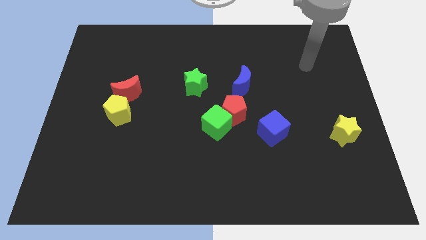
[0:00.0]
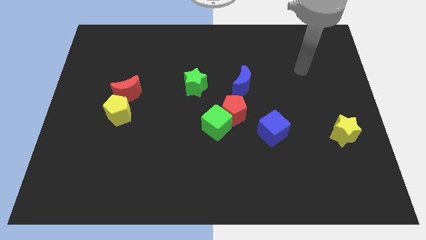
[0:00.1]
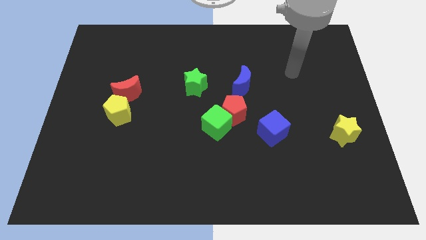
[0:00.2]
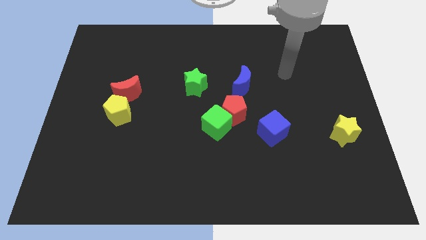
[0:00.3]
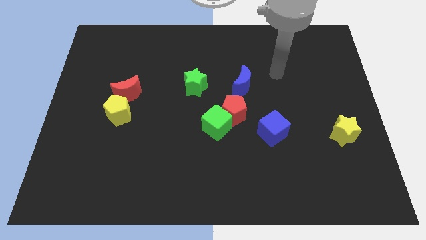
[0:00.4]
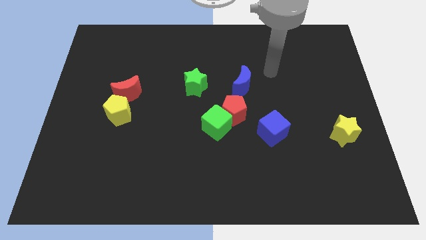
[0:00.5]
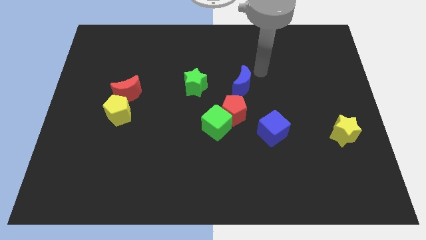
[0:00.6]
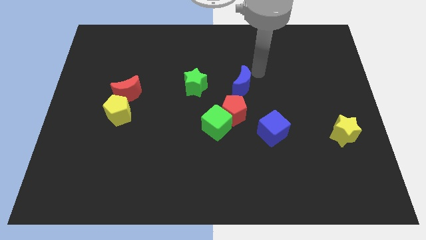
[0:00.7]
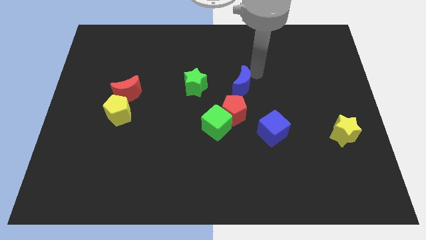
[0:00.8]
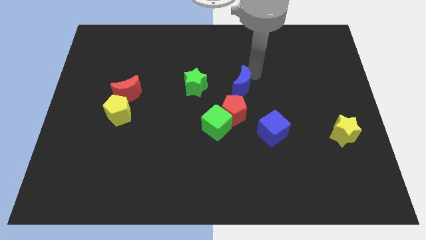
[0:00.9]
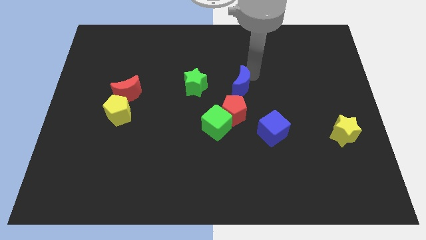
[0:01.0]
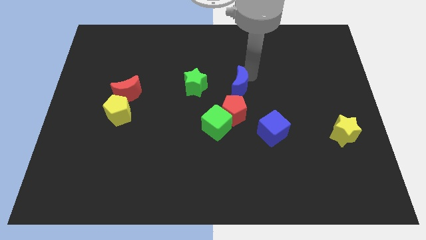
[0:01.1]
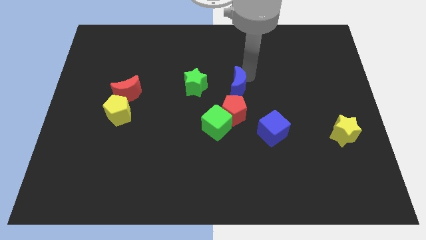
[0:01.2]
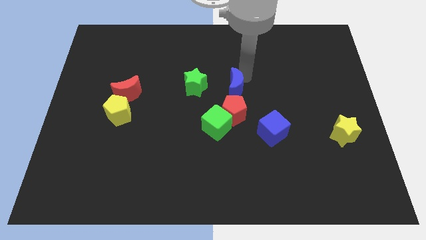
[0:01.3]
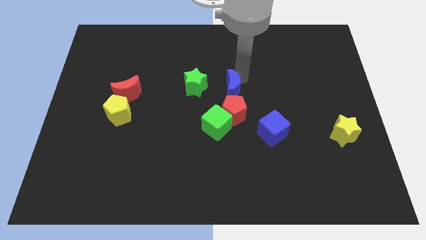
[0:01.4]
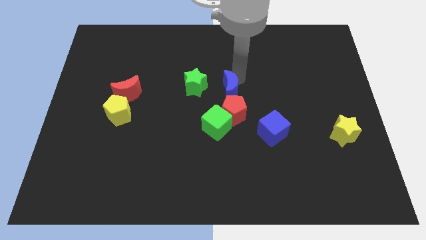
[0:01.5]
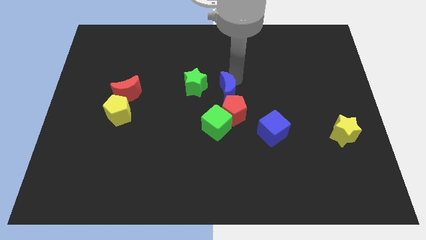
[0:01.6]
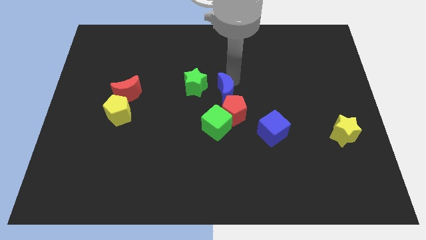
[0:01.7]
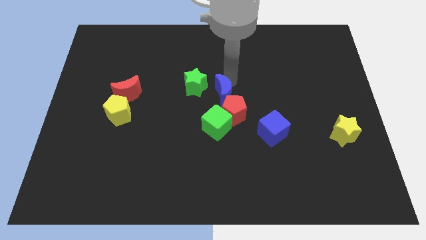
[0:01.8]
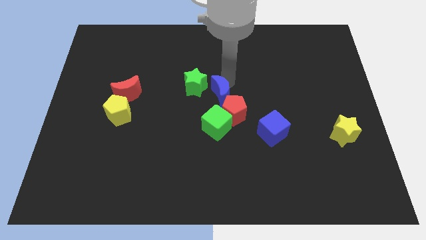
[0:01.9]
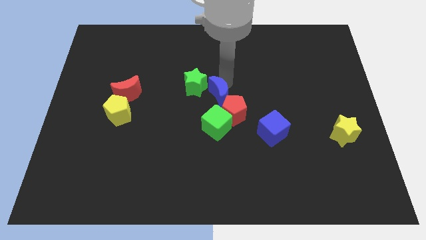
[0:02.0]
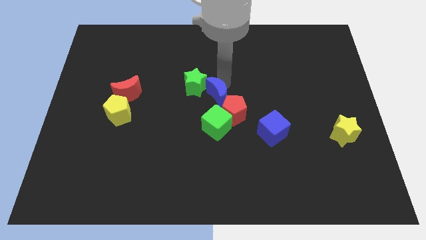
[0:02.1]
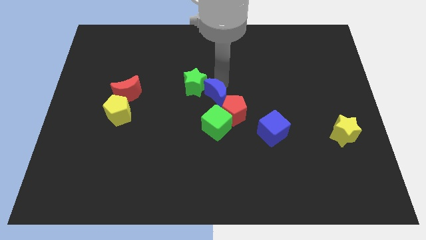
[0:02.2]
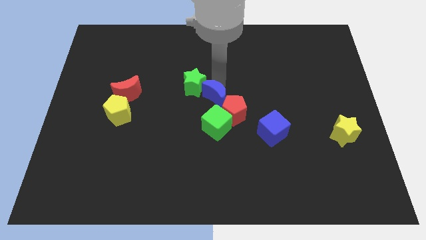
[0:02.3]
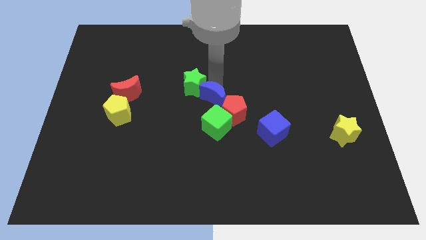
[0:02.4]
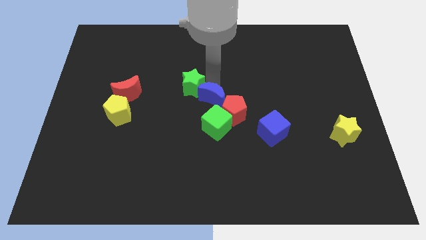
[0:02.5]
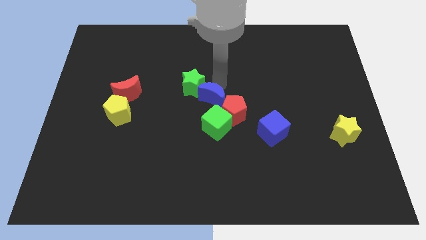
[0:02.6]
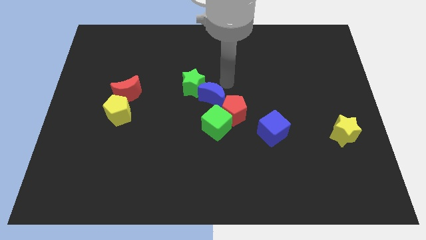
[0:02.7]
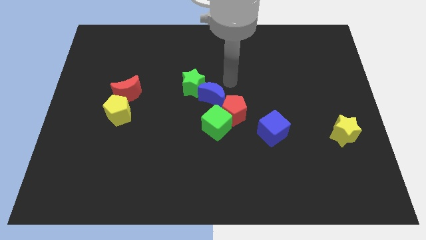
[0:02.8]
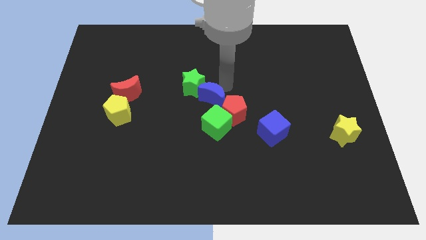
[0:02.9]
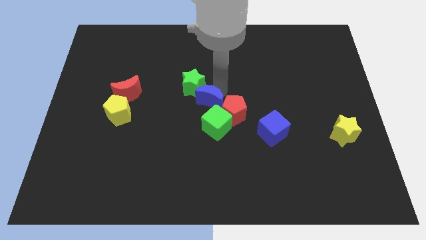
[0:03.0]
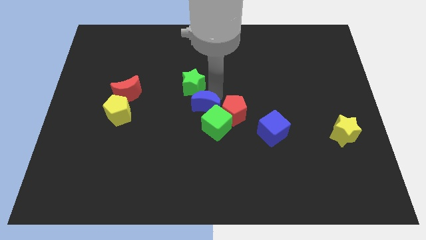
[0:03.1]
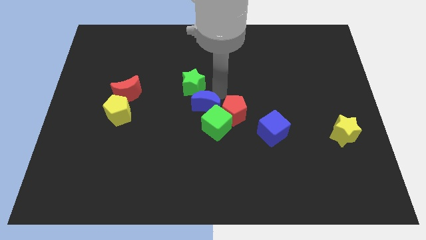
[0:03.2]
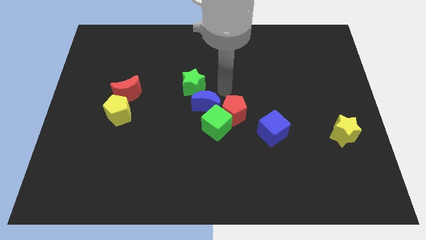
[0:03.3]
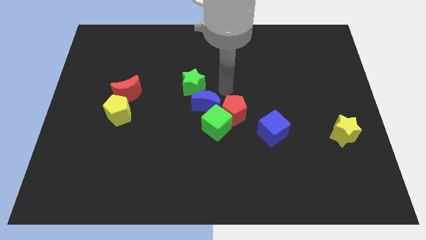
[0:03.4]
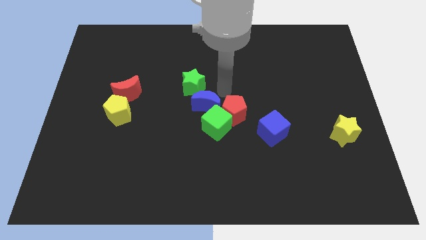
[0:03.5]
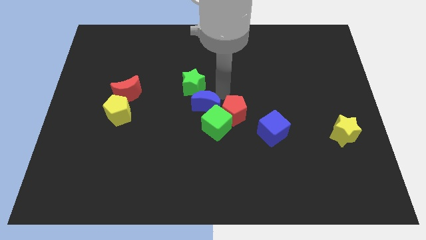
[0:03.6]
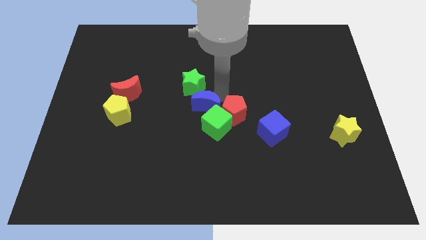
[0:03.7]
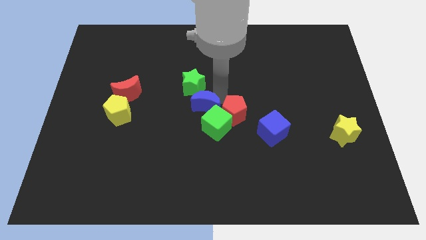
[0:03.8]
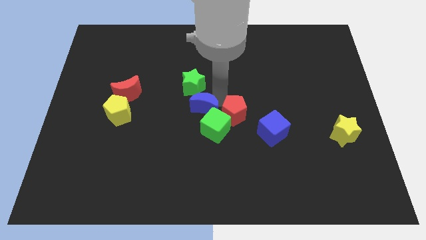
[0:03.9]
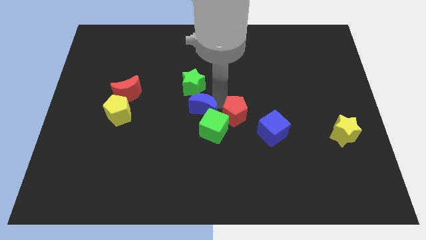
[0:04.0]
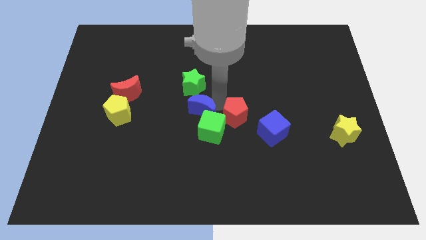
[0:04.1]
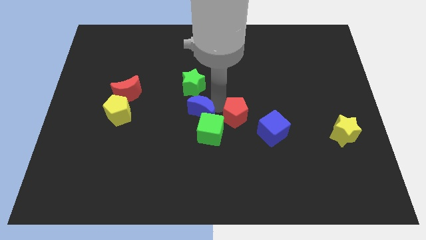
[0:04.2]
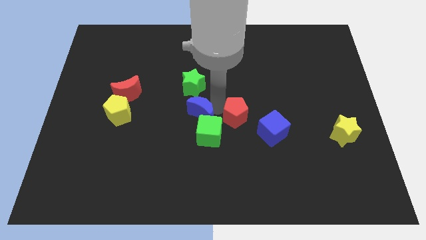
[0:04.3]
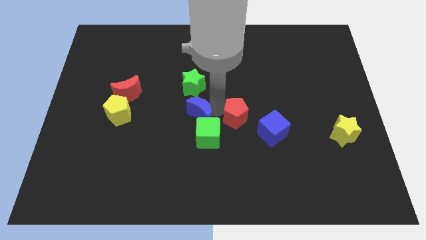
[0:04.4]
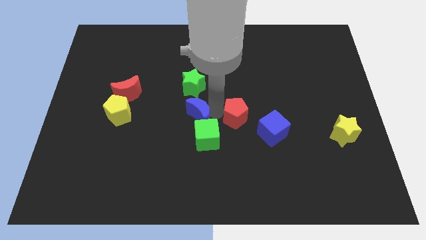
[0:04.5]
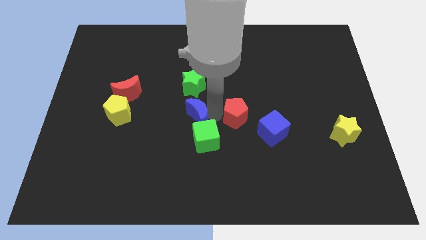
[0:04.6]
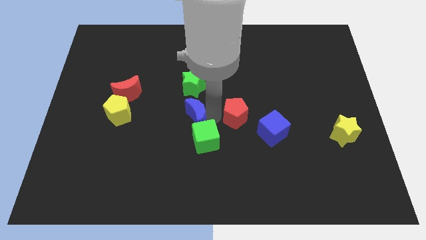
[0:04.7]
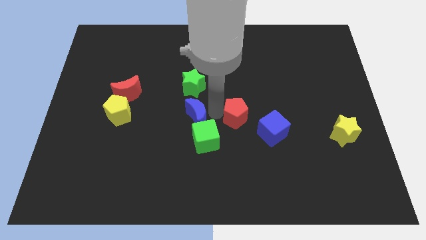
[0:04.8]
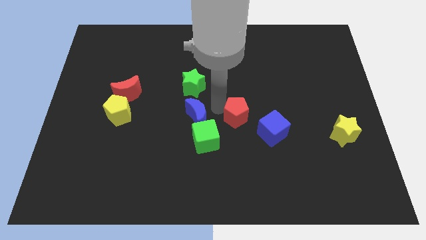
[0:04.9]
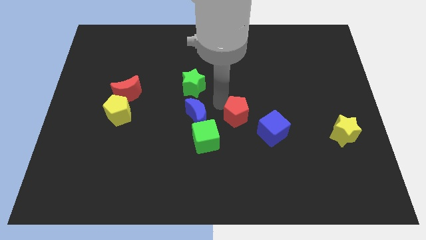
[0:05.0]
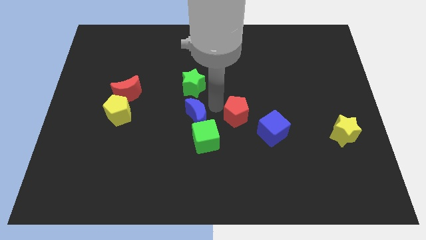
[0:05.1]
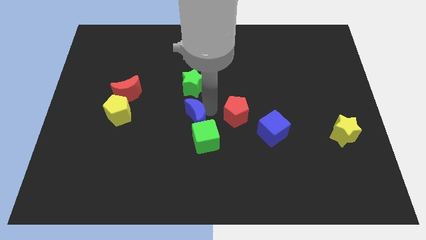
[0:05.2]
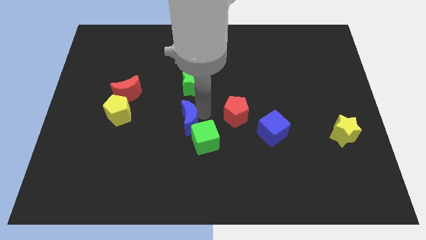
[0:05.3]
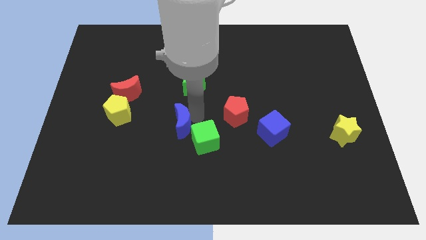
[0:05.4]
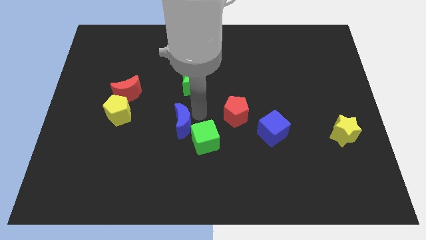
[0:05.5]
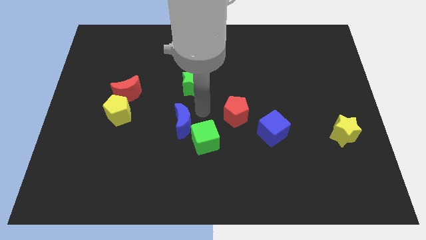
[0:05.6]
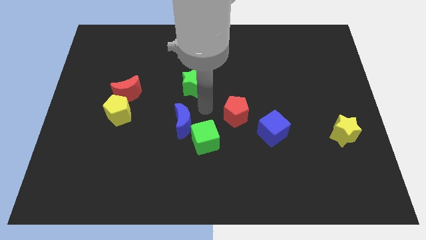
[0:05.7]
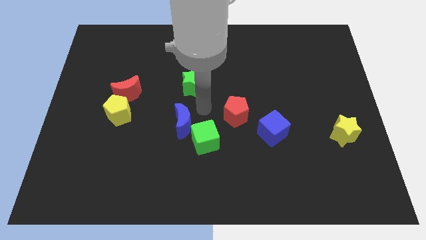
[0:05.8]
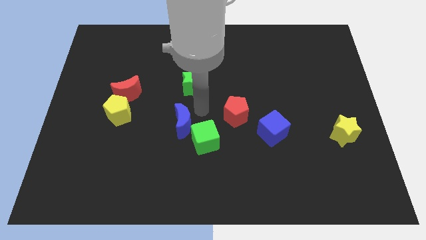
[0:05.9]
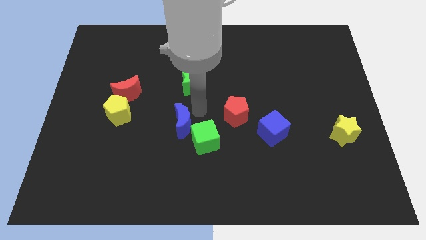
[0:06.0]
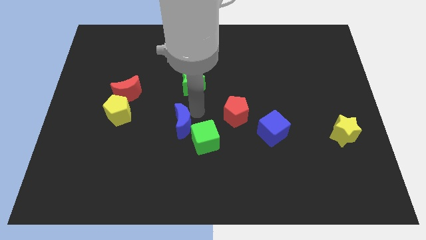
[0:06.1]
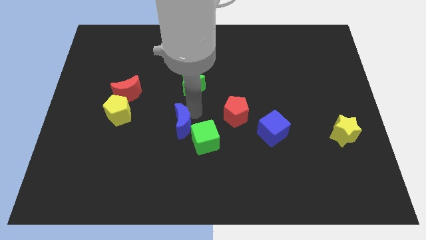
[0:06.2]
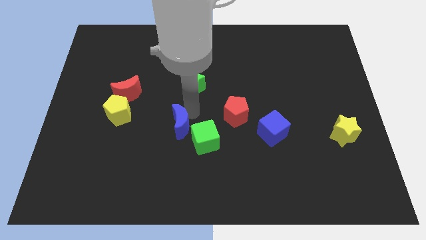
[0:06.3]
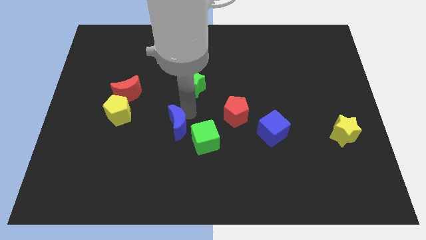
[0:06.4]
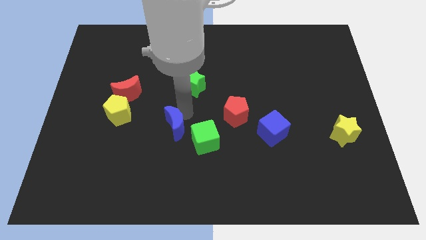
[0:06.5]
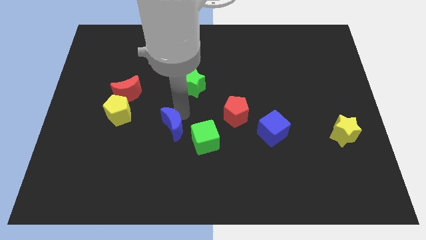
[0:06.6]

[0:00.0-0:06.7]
push the blue moon down and left

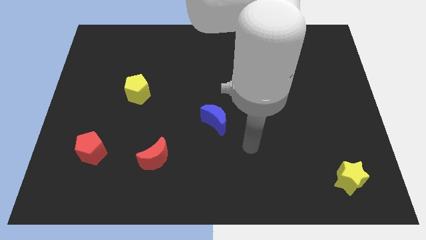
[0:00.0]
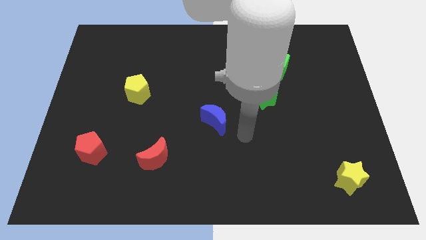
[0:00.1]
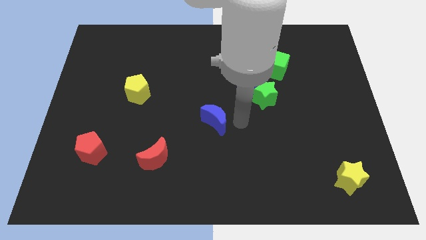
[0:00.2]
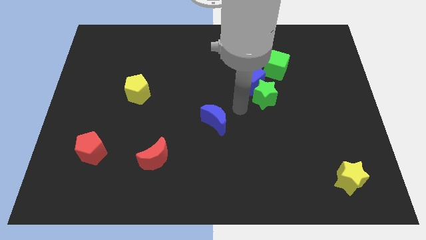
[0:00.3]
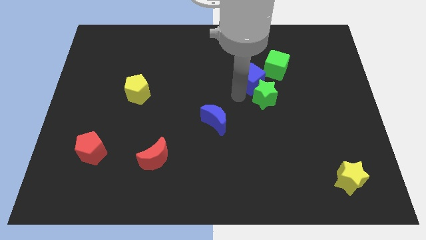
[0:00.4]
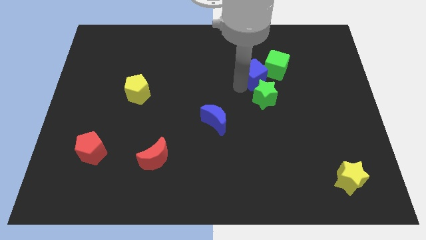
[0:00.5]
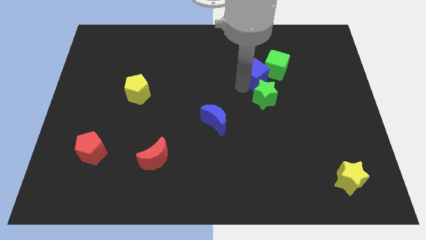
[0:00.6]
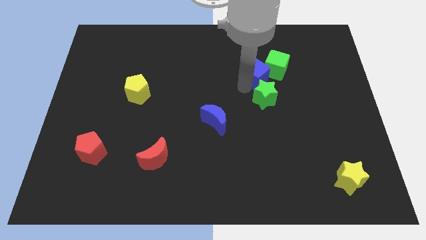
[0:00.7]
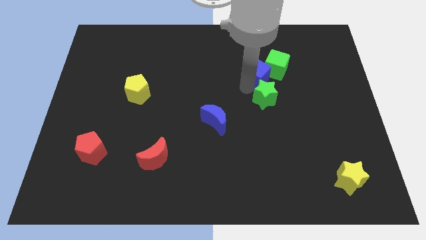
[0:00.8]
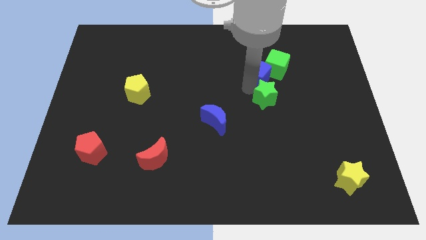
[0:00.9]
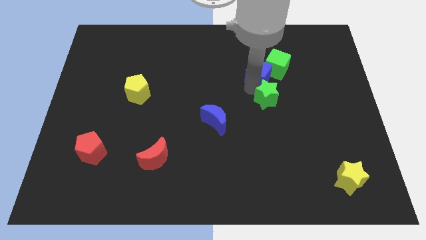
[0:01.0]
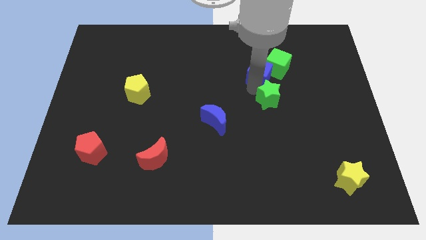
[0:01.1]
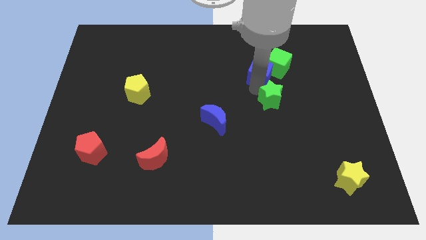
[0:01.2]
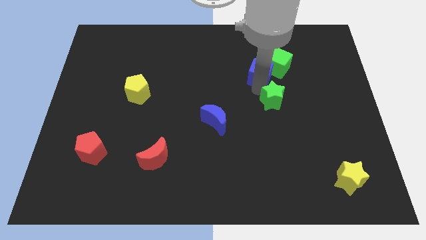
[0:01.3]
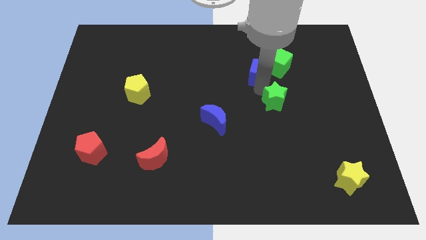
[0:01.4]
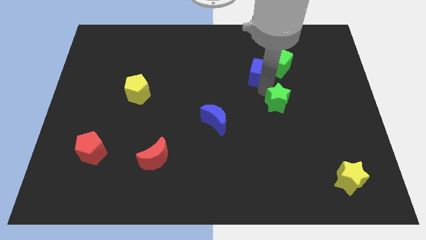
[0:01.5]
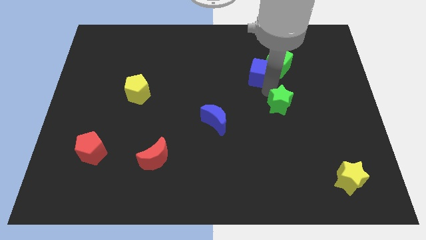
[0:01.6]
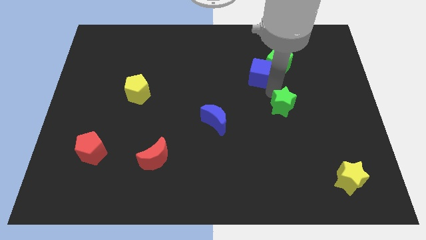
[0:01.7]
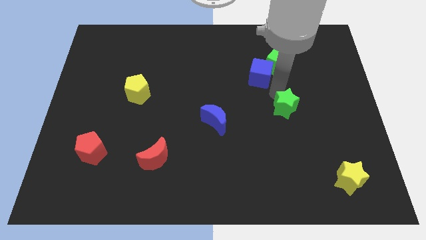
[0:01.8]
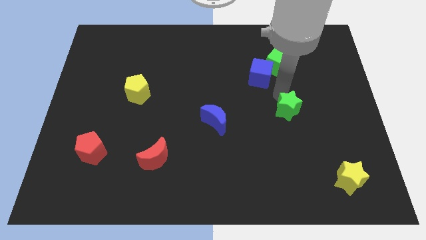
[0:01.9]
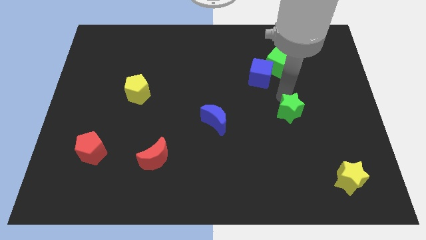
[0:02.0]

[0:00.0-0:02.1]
slightly push the green star down and to the right
